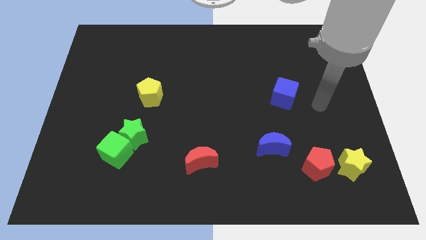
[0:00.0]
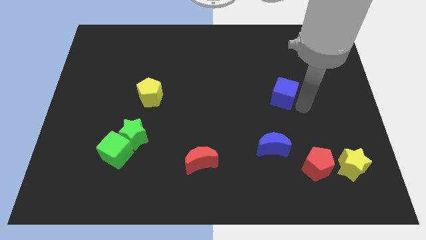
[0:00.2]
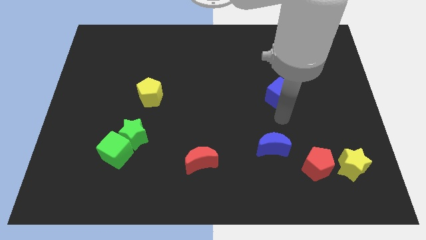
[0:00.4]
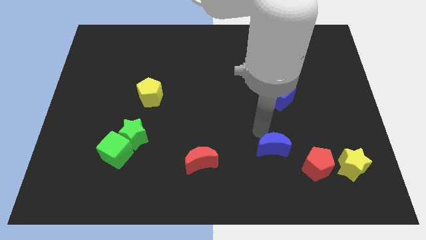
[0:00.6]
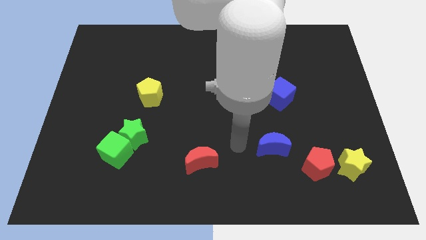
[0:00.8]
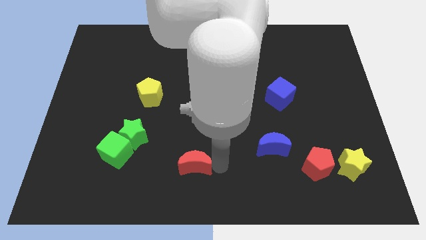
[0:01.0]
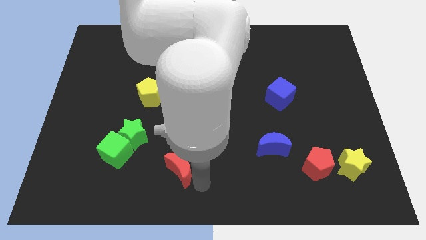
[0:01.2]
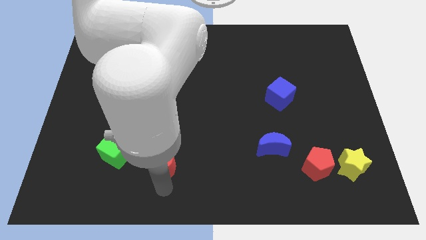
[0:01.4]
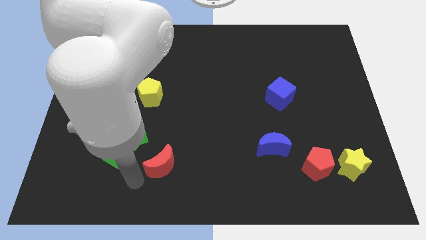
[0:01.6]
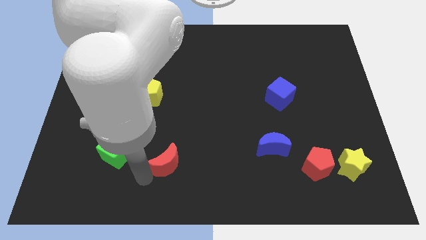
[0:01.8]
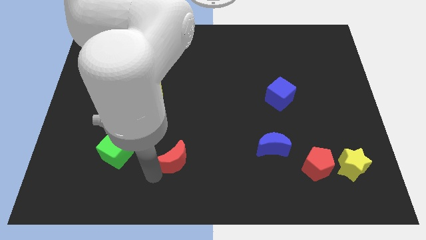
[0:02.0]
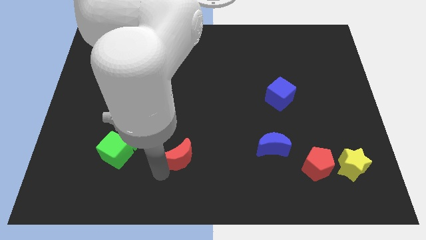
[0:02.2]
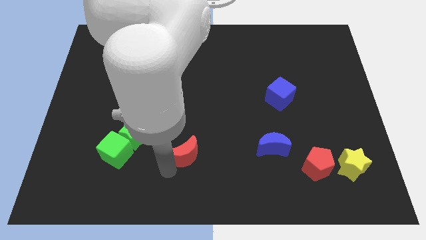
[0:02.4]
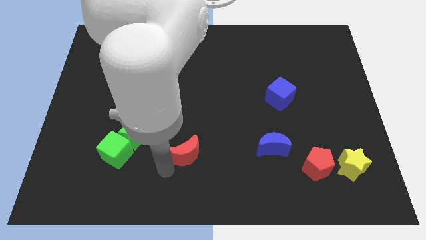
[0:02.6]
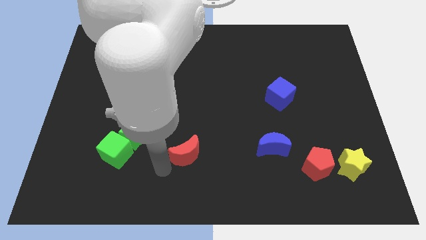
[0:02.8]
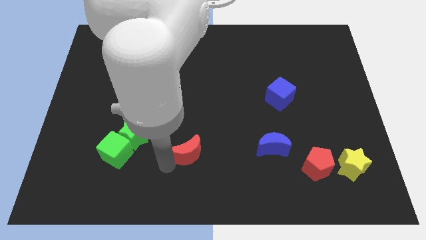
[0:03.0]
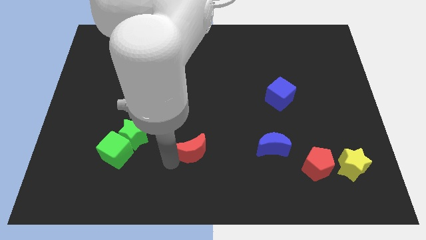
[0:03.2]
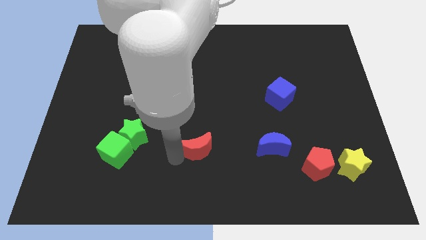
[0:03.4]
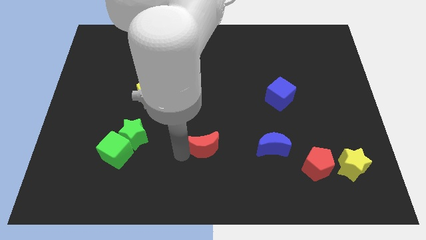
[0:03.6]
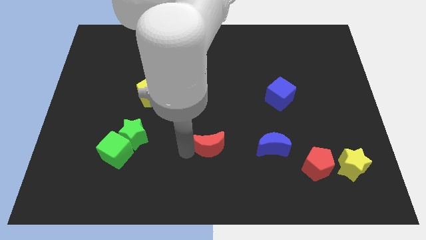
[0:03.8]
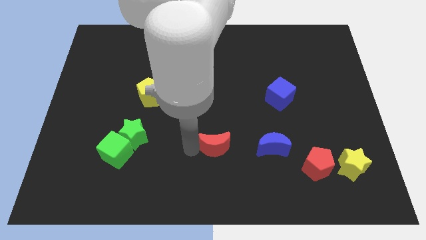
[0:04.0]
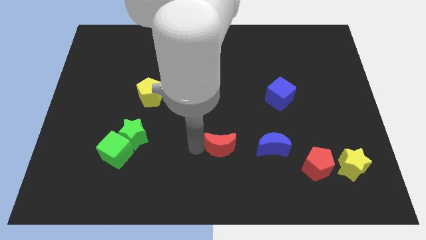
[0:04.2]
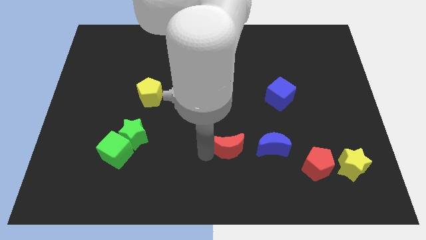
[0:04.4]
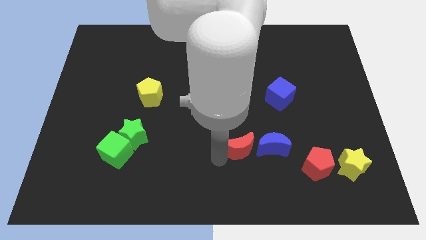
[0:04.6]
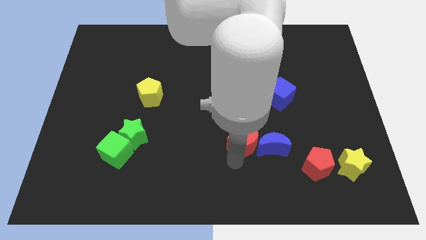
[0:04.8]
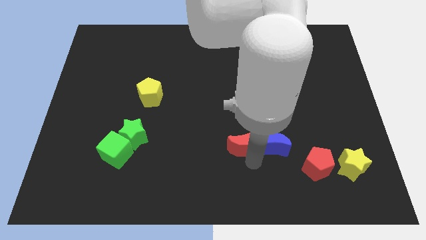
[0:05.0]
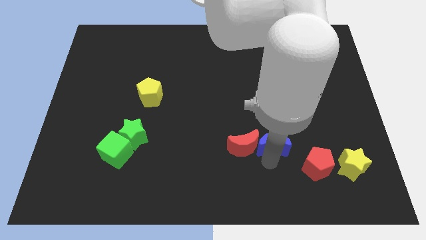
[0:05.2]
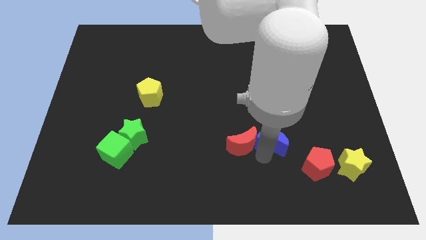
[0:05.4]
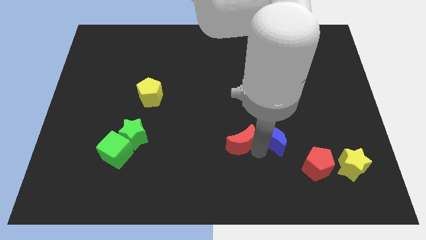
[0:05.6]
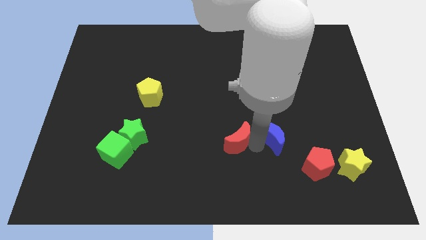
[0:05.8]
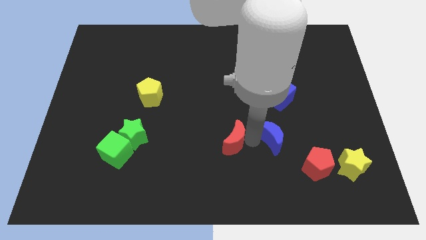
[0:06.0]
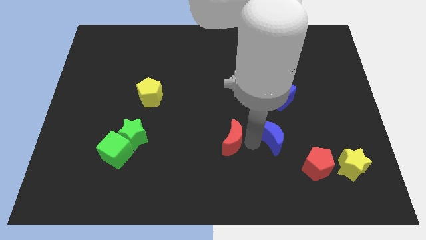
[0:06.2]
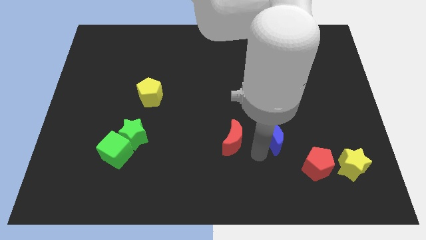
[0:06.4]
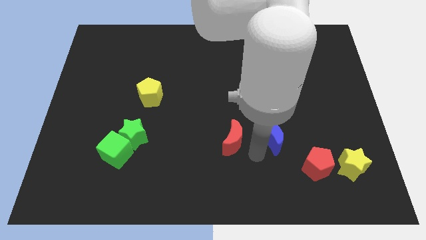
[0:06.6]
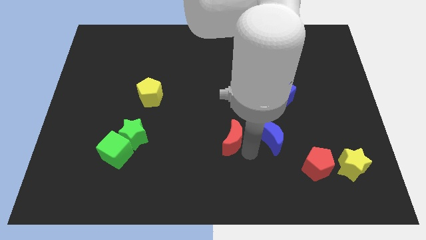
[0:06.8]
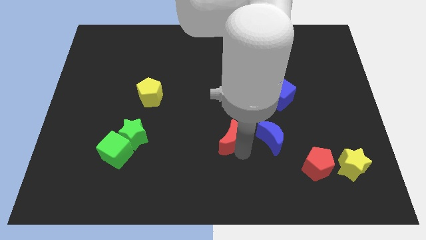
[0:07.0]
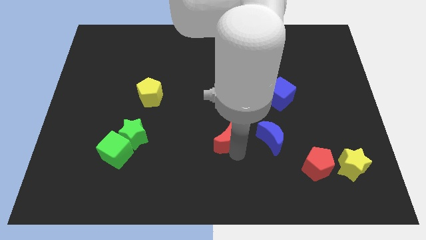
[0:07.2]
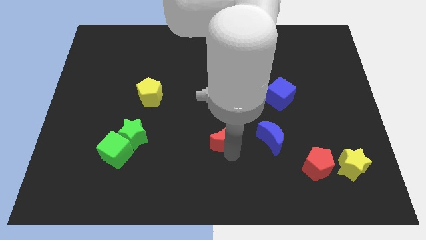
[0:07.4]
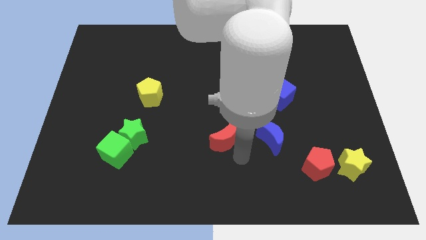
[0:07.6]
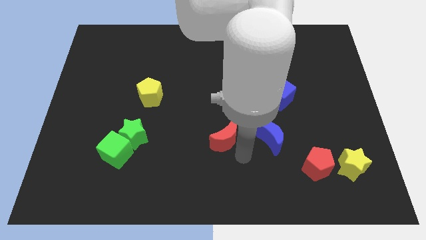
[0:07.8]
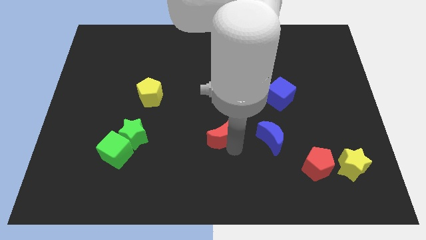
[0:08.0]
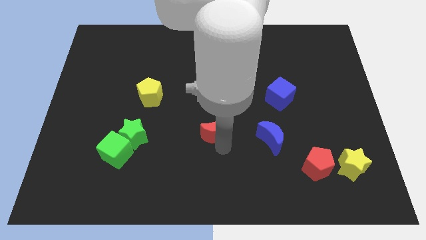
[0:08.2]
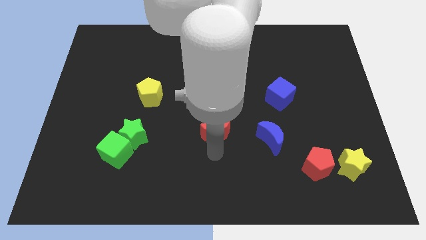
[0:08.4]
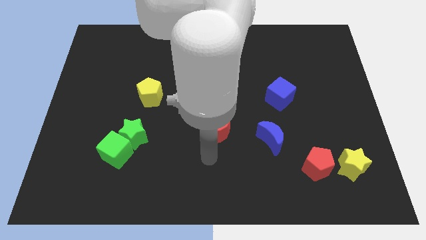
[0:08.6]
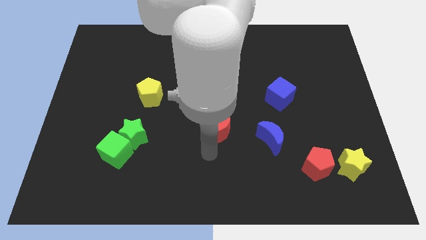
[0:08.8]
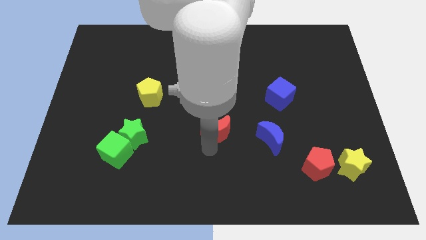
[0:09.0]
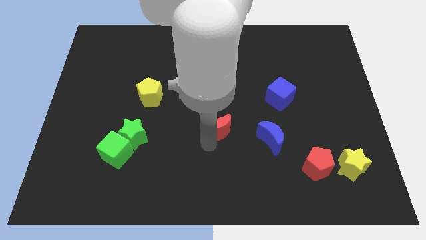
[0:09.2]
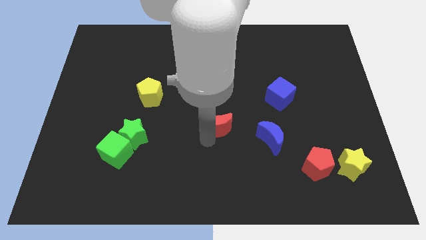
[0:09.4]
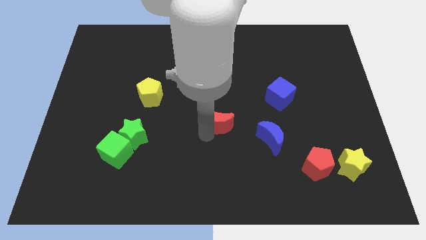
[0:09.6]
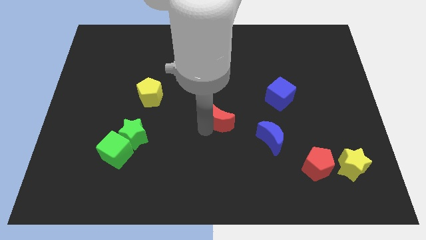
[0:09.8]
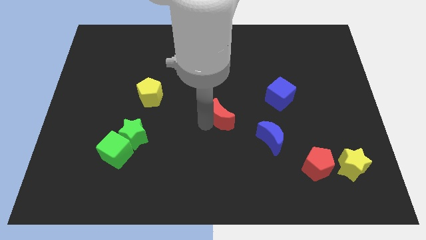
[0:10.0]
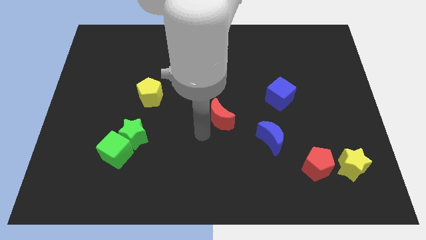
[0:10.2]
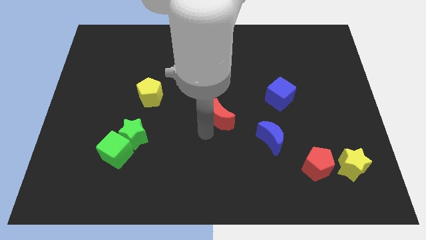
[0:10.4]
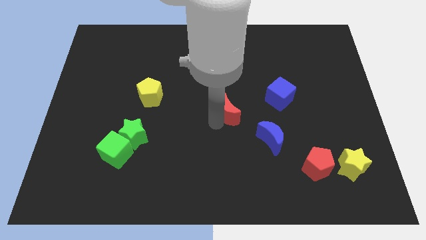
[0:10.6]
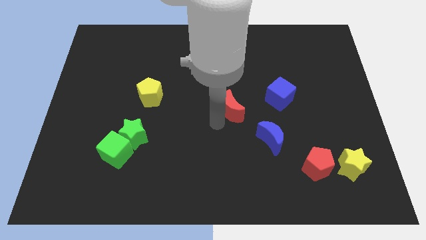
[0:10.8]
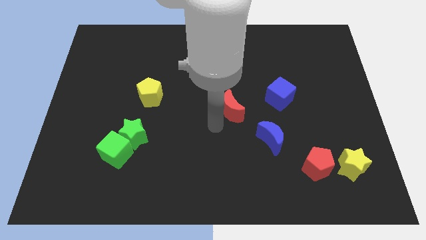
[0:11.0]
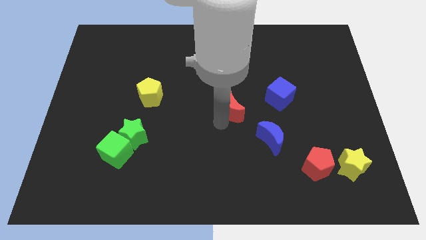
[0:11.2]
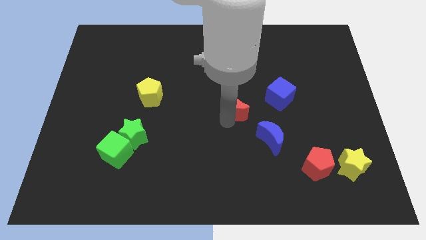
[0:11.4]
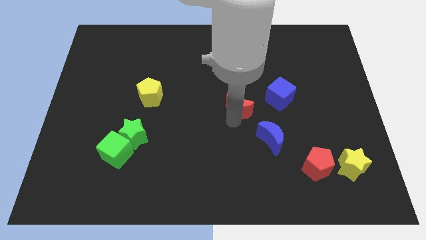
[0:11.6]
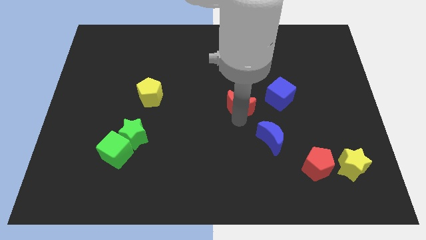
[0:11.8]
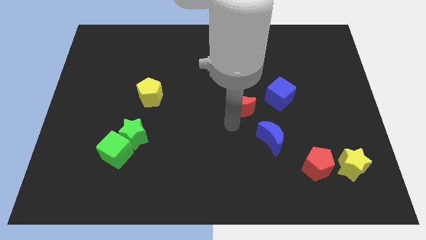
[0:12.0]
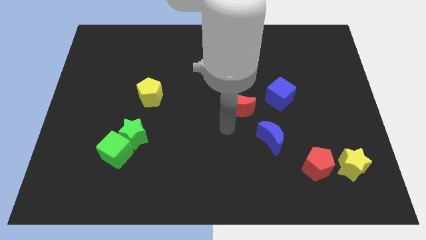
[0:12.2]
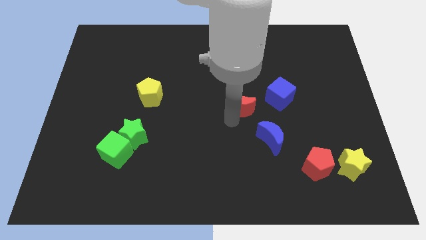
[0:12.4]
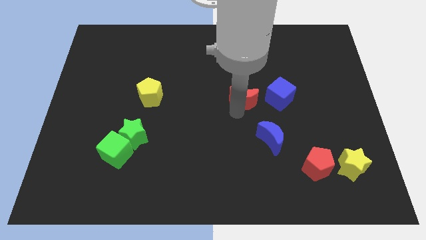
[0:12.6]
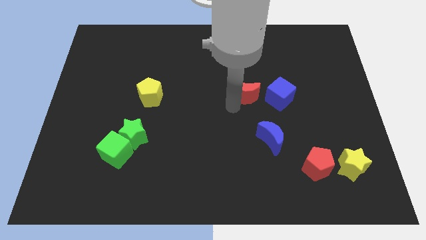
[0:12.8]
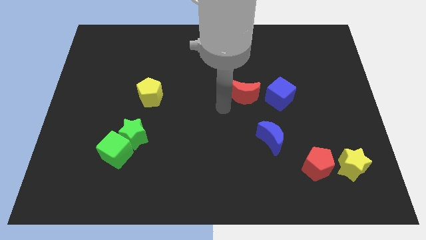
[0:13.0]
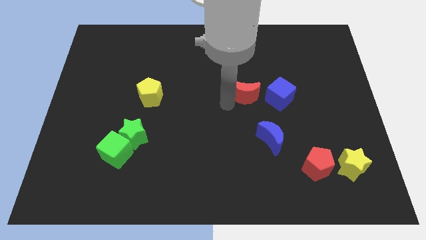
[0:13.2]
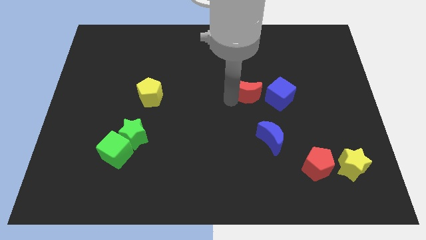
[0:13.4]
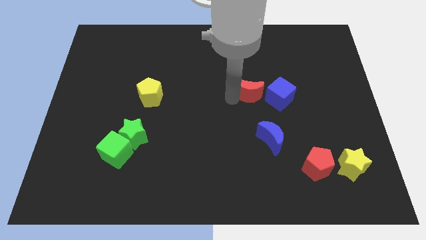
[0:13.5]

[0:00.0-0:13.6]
move the red moon upwards and right

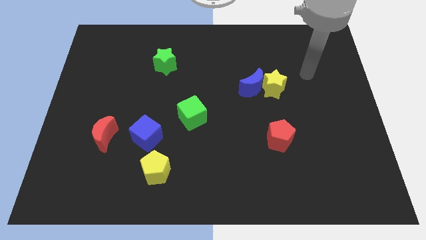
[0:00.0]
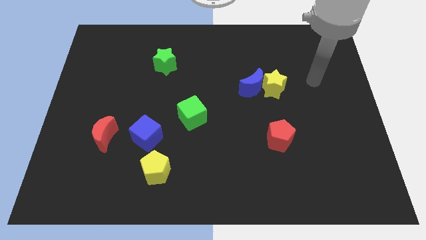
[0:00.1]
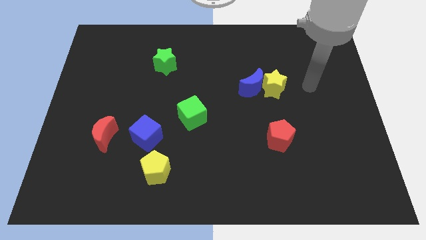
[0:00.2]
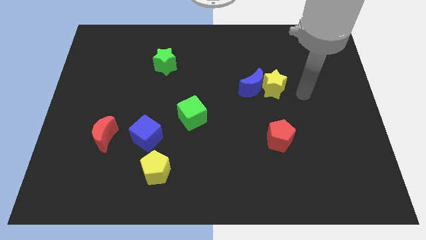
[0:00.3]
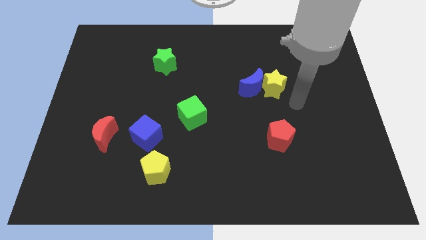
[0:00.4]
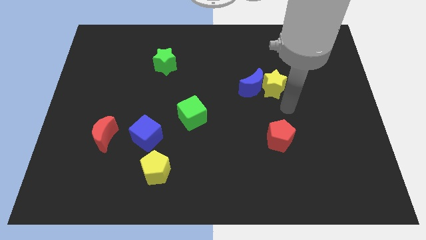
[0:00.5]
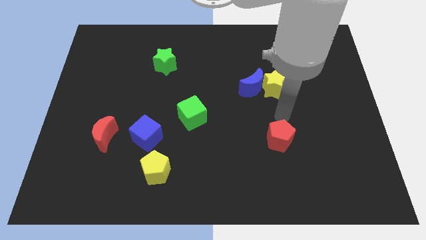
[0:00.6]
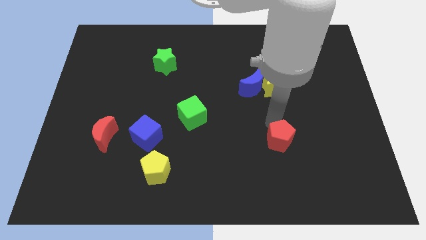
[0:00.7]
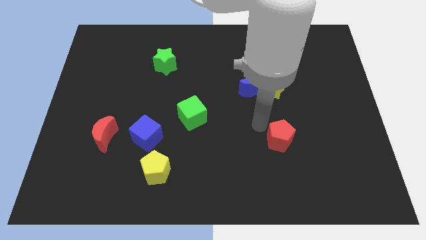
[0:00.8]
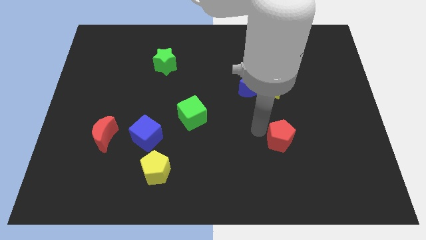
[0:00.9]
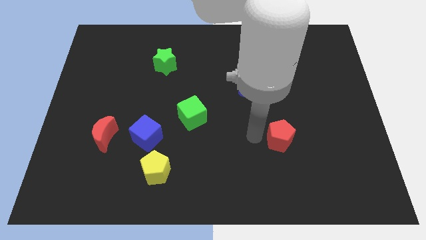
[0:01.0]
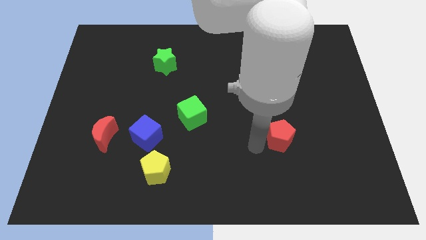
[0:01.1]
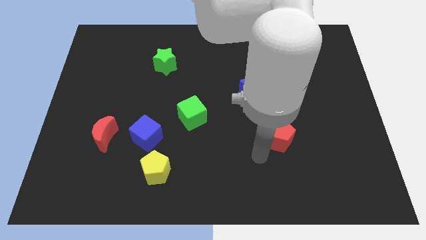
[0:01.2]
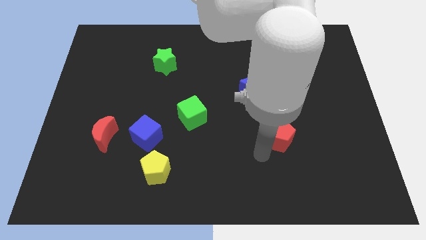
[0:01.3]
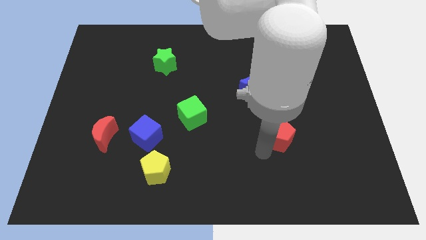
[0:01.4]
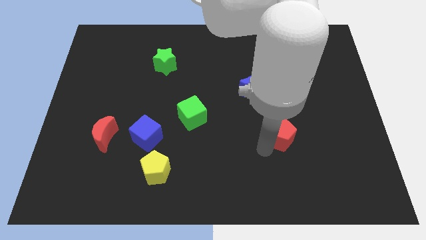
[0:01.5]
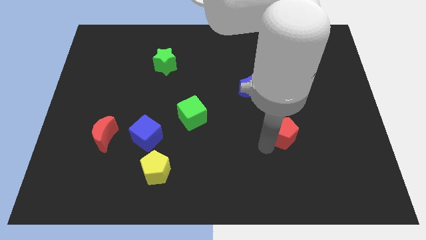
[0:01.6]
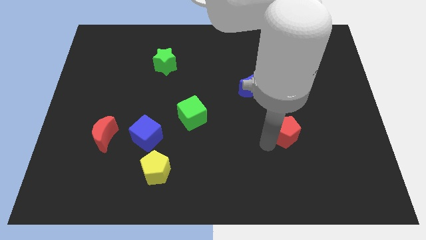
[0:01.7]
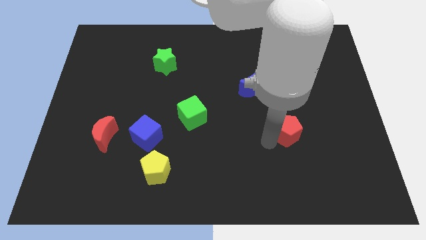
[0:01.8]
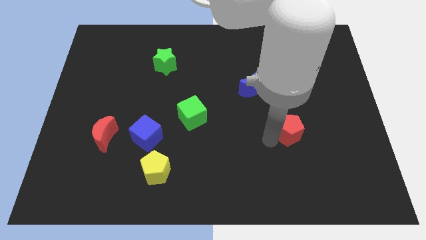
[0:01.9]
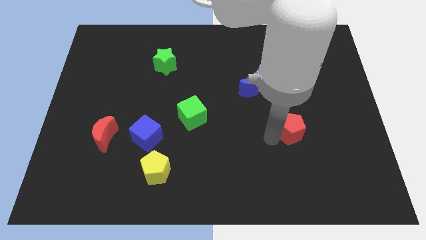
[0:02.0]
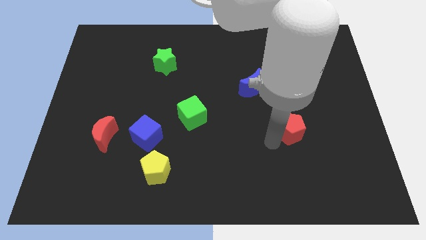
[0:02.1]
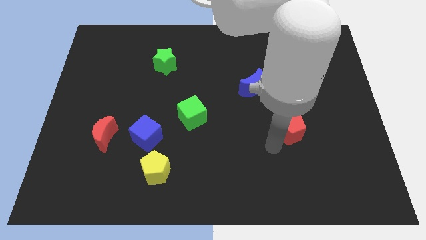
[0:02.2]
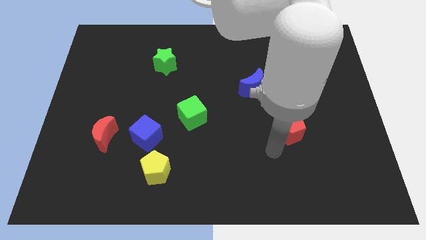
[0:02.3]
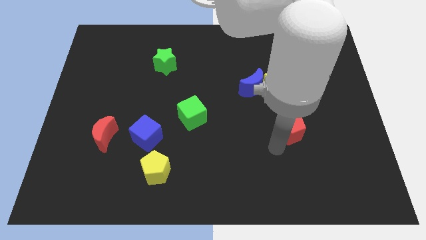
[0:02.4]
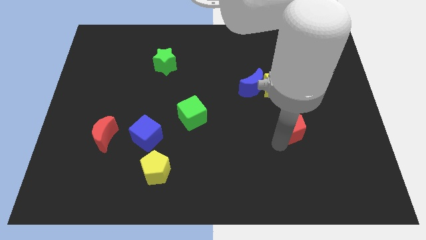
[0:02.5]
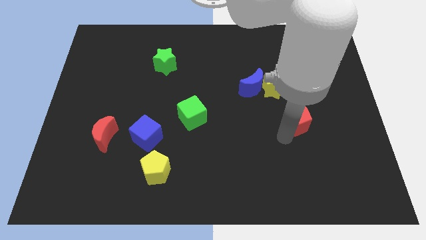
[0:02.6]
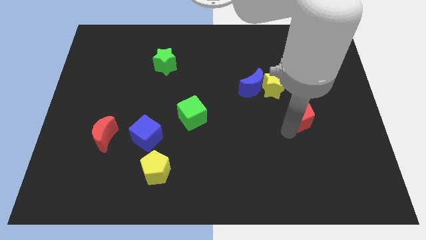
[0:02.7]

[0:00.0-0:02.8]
slightly slide the red pentagon diagonally up and to the right
